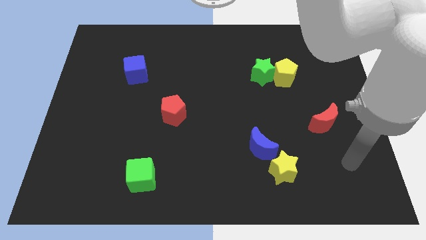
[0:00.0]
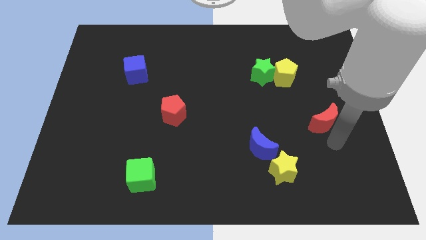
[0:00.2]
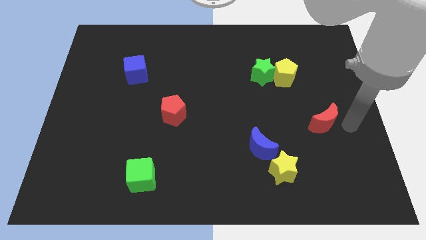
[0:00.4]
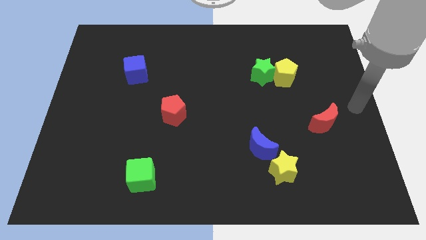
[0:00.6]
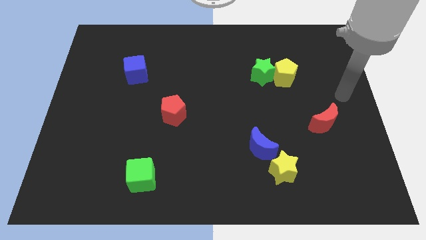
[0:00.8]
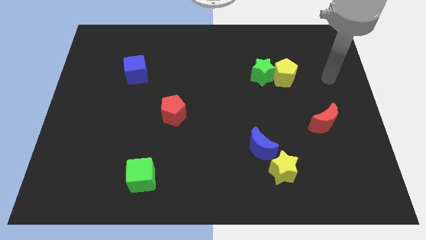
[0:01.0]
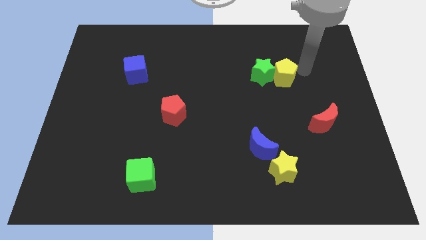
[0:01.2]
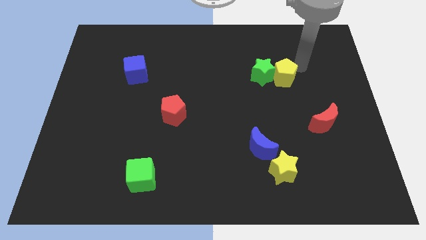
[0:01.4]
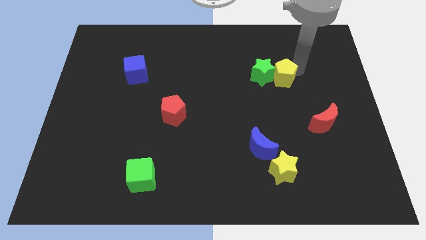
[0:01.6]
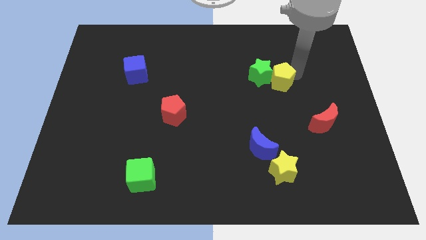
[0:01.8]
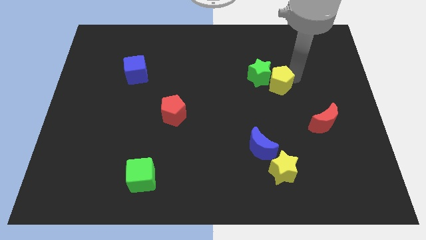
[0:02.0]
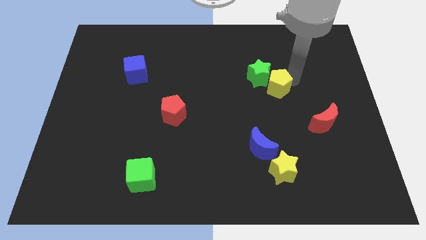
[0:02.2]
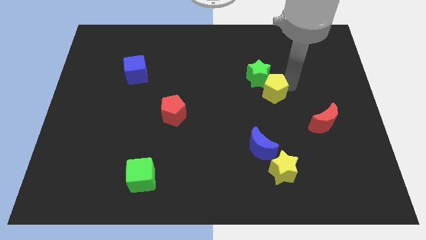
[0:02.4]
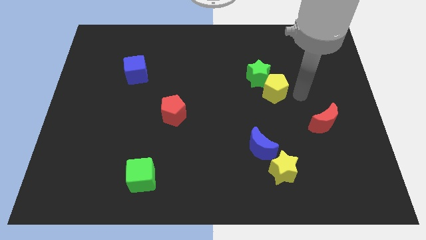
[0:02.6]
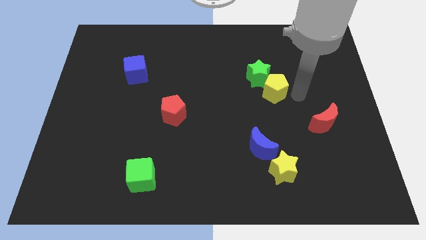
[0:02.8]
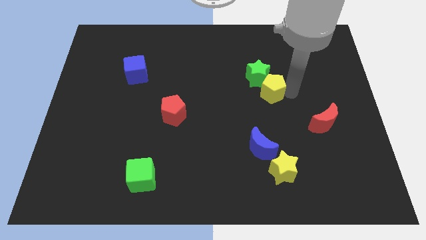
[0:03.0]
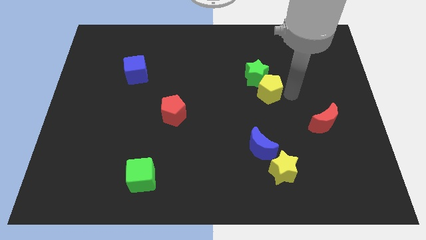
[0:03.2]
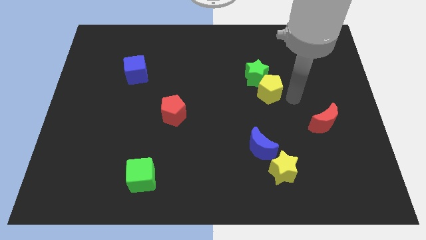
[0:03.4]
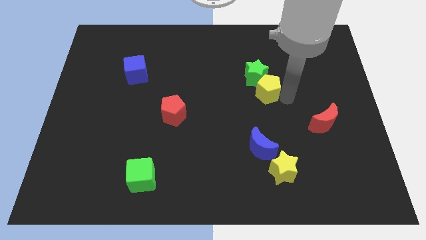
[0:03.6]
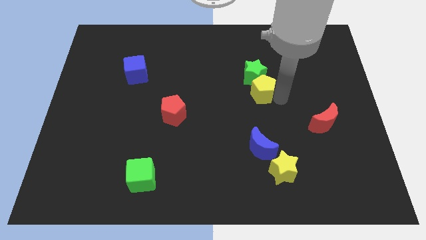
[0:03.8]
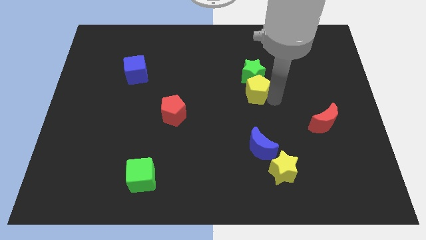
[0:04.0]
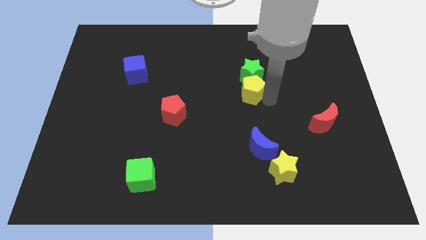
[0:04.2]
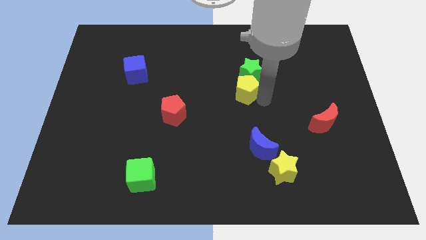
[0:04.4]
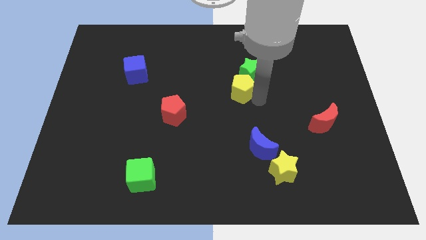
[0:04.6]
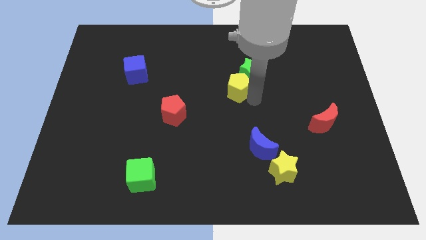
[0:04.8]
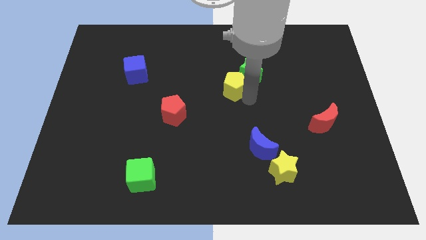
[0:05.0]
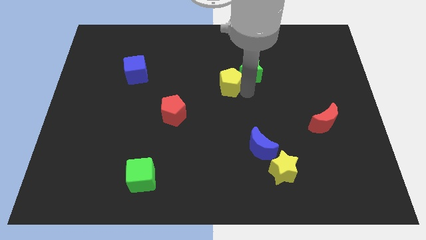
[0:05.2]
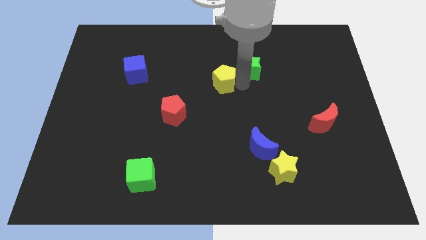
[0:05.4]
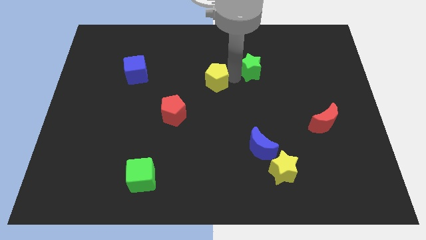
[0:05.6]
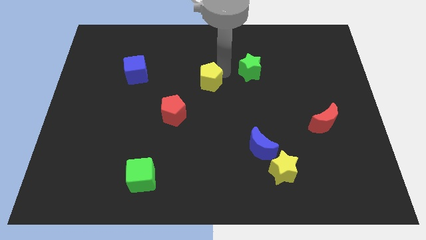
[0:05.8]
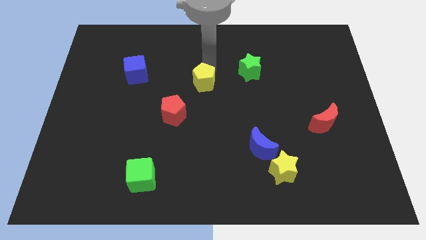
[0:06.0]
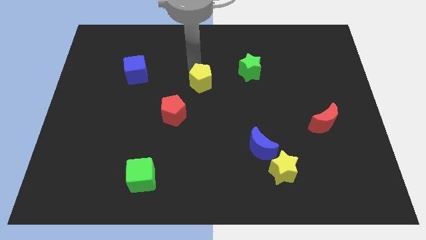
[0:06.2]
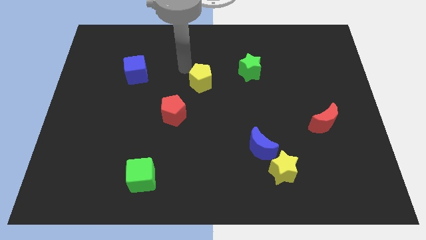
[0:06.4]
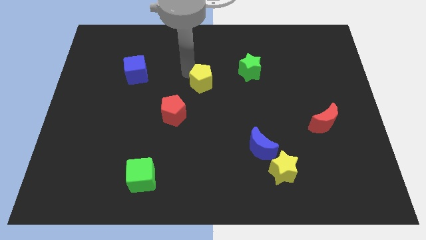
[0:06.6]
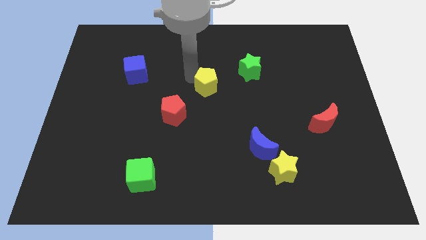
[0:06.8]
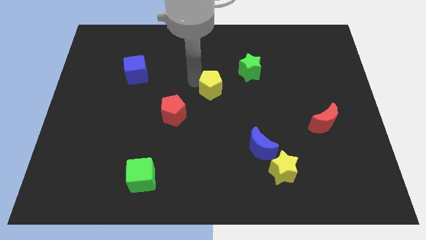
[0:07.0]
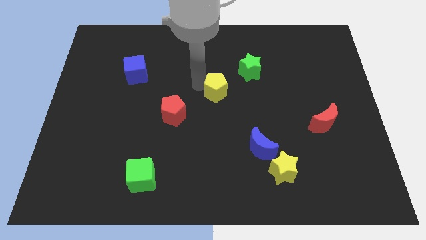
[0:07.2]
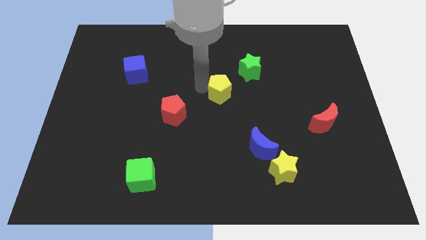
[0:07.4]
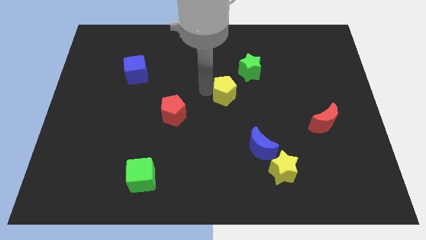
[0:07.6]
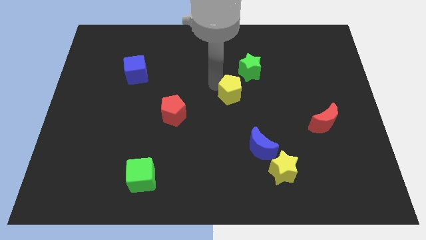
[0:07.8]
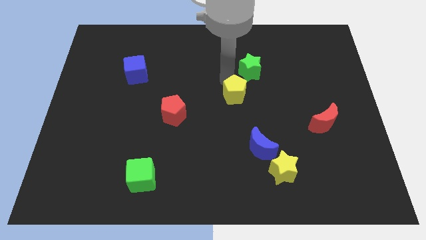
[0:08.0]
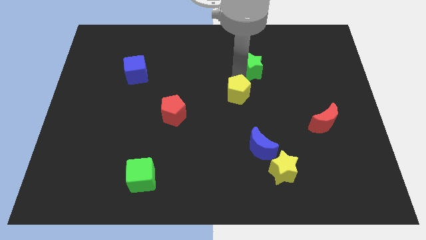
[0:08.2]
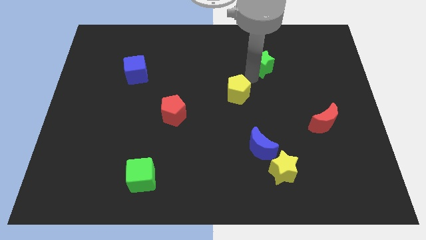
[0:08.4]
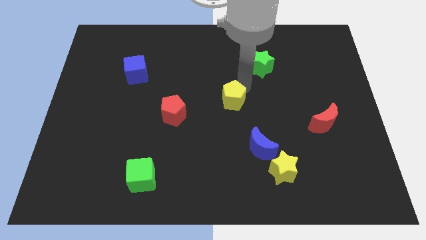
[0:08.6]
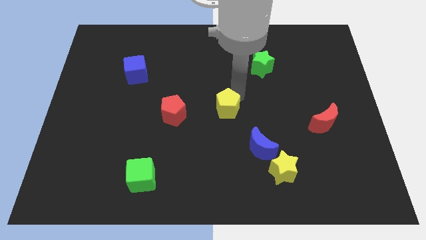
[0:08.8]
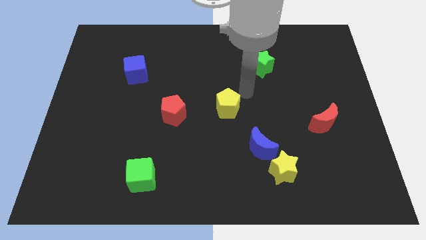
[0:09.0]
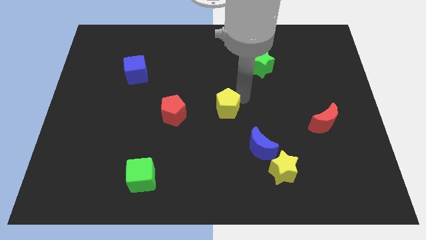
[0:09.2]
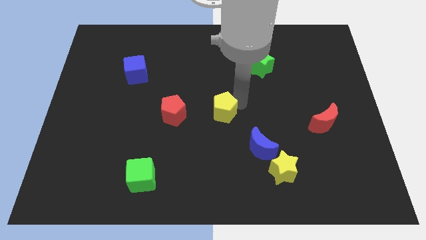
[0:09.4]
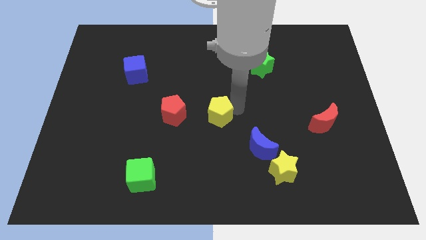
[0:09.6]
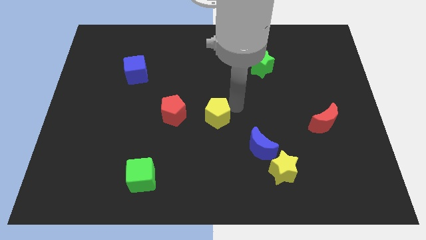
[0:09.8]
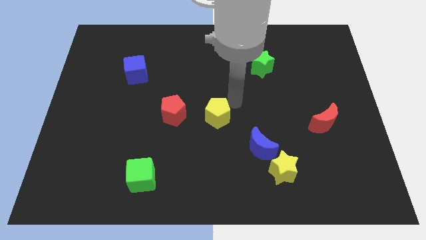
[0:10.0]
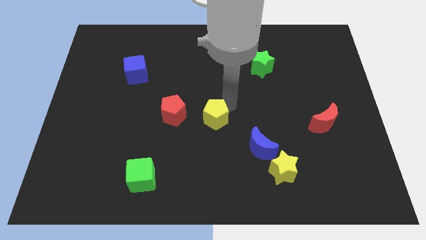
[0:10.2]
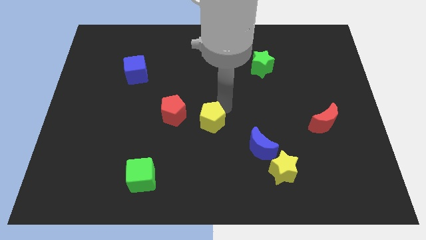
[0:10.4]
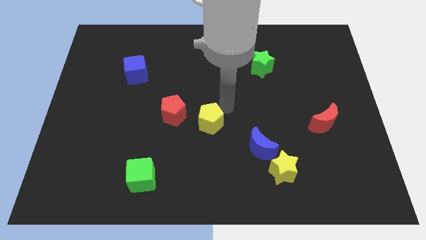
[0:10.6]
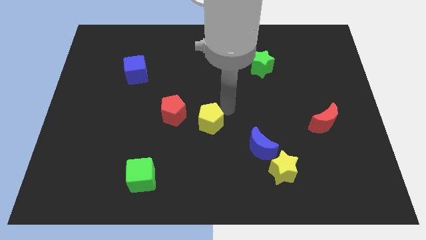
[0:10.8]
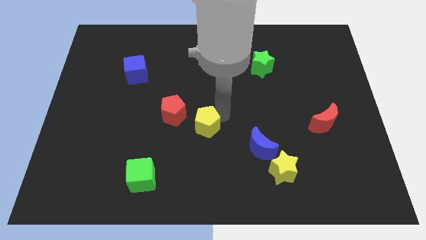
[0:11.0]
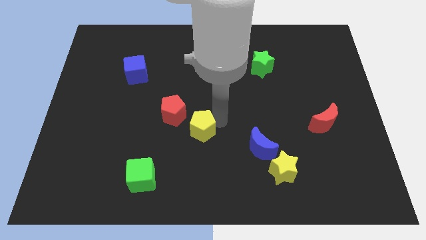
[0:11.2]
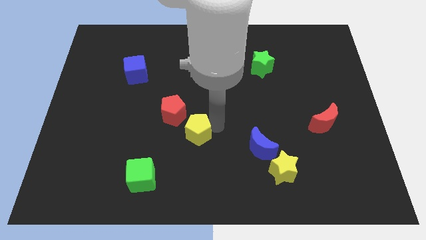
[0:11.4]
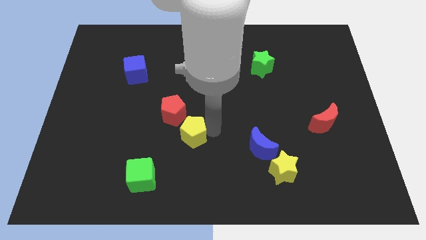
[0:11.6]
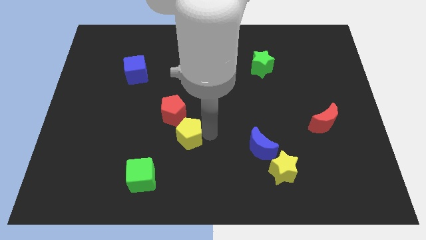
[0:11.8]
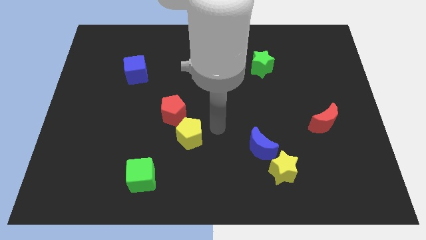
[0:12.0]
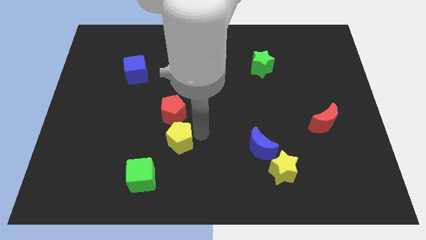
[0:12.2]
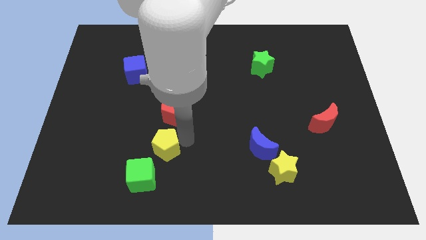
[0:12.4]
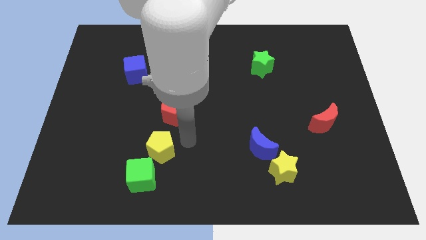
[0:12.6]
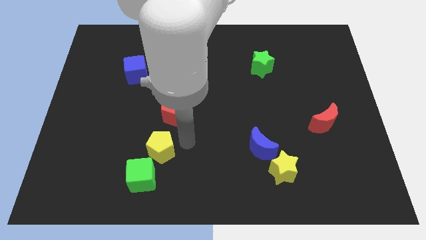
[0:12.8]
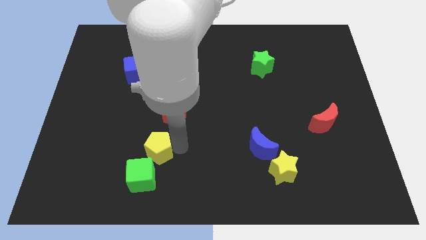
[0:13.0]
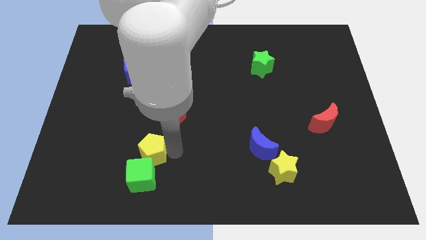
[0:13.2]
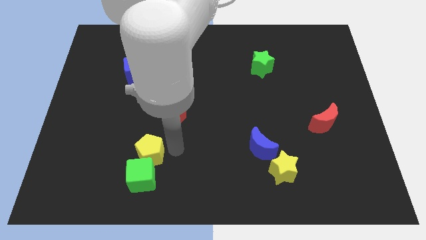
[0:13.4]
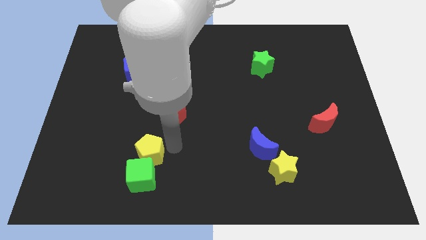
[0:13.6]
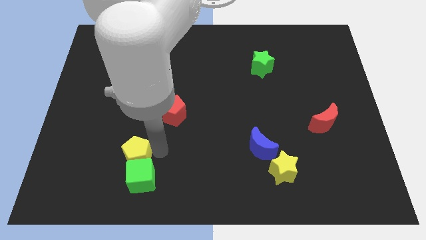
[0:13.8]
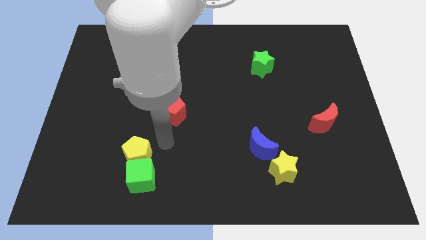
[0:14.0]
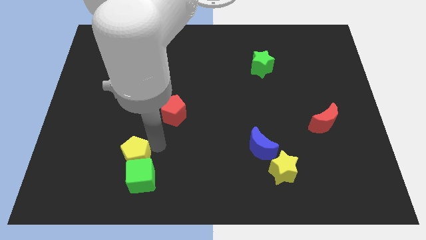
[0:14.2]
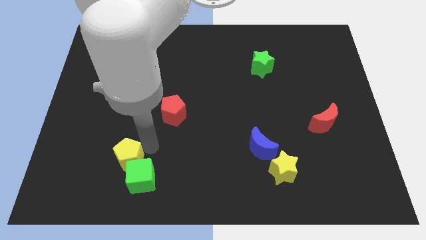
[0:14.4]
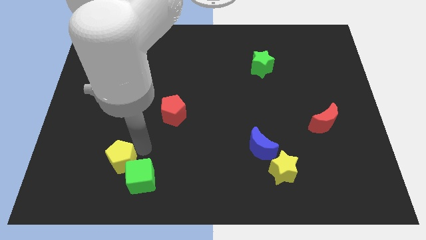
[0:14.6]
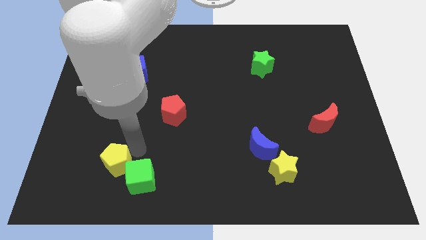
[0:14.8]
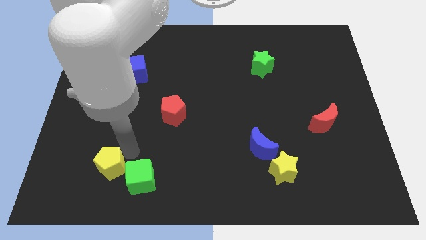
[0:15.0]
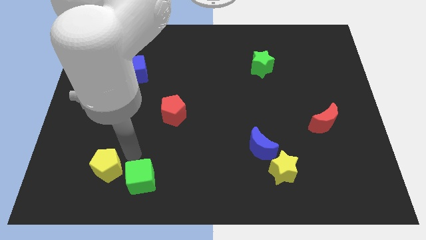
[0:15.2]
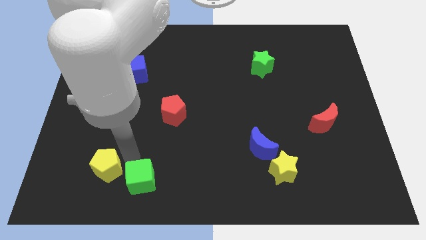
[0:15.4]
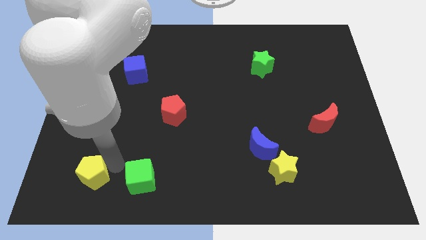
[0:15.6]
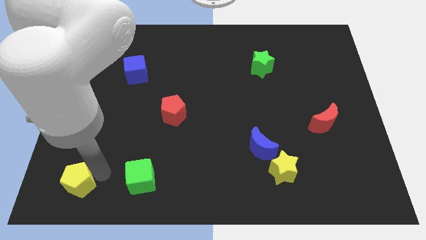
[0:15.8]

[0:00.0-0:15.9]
push the yellow pentagon to the bottom left
